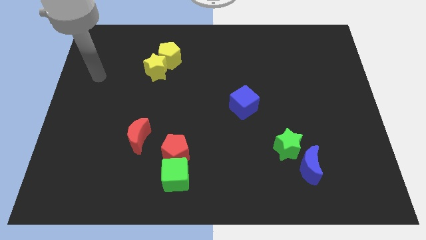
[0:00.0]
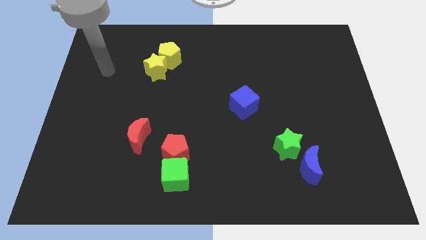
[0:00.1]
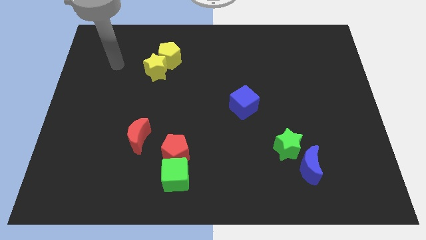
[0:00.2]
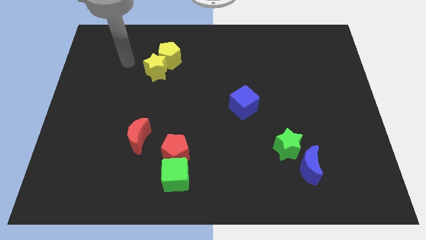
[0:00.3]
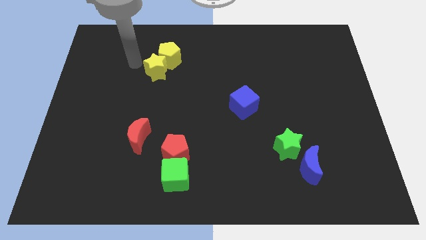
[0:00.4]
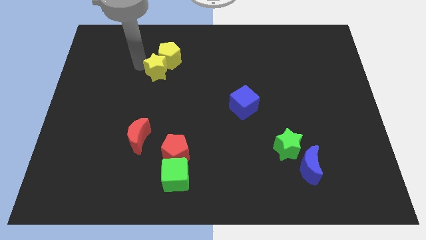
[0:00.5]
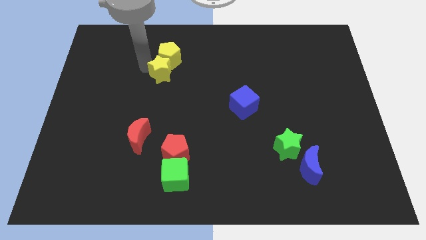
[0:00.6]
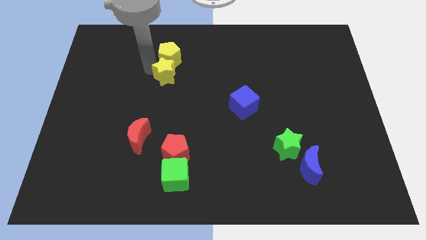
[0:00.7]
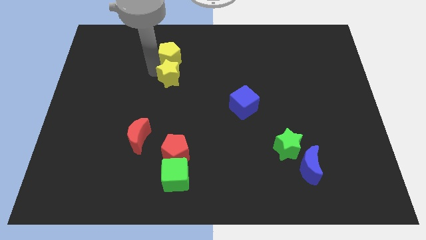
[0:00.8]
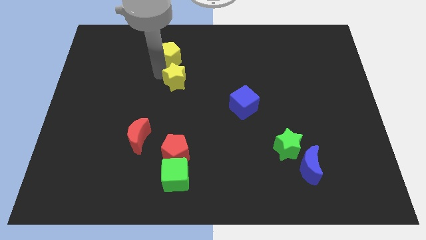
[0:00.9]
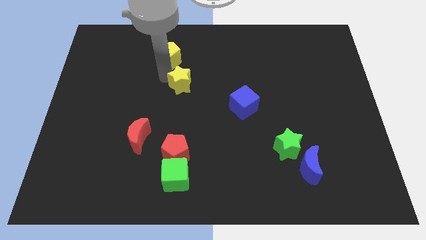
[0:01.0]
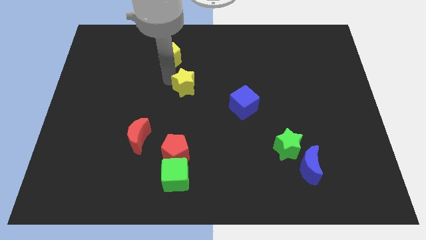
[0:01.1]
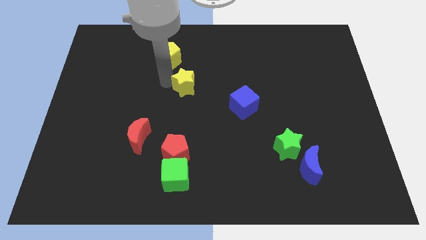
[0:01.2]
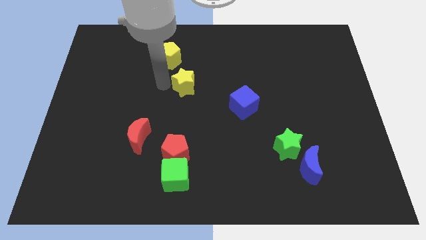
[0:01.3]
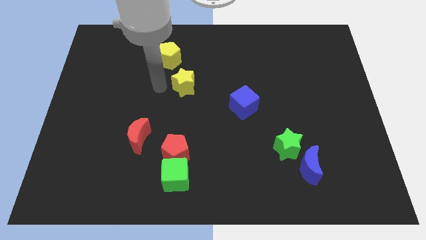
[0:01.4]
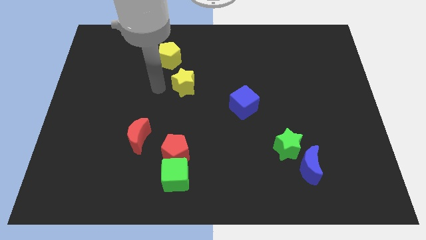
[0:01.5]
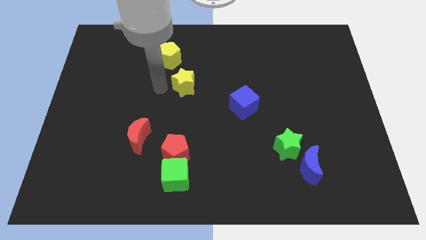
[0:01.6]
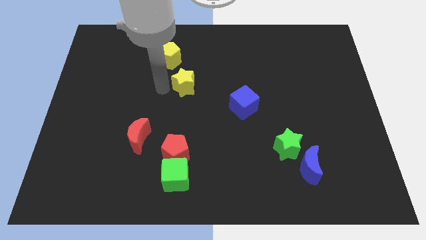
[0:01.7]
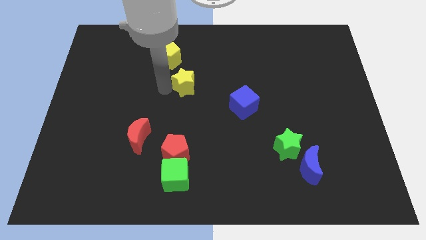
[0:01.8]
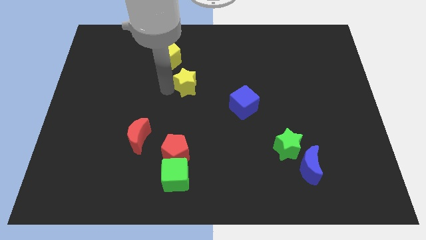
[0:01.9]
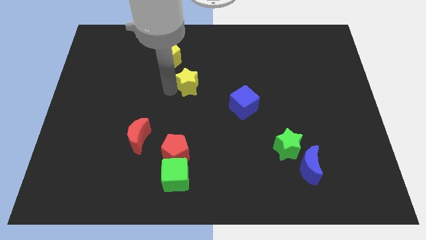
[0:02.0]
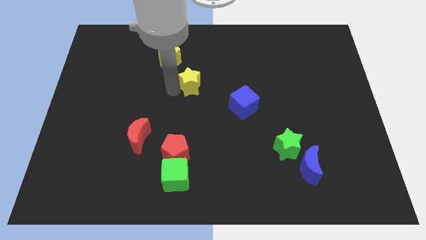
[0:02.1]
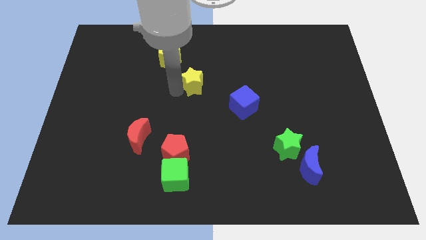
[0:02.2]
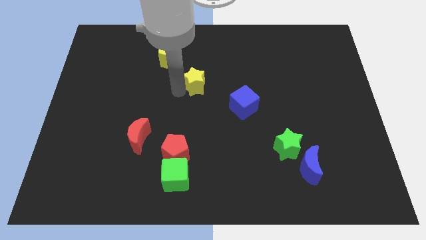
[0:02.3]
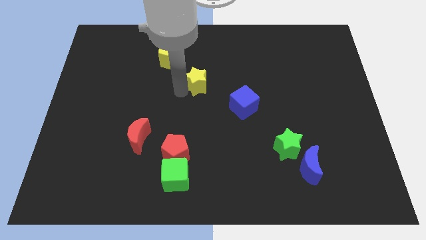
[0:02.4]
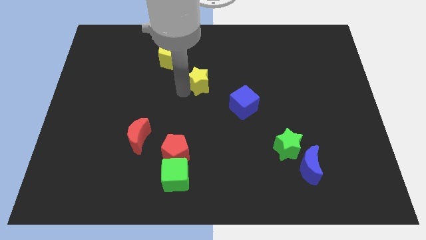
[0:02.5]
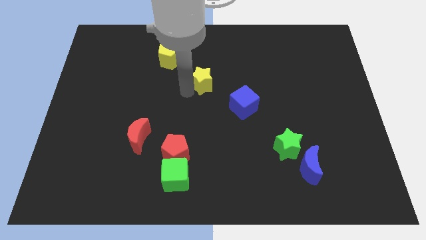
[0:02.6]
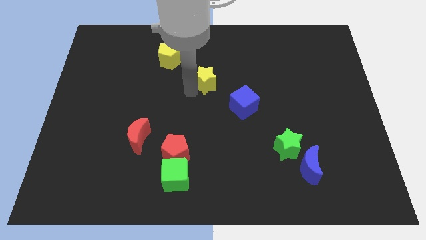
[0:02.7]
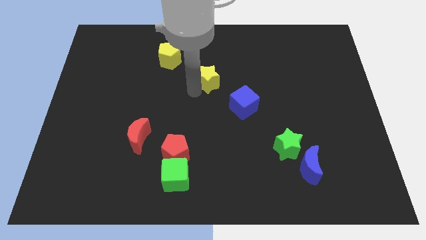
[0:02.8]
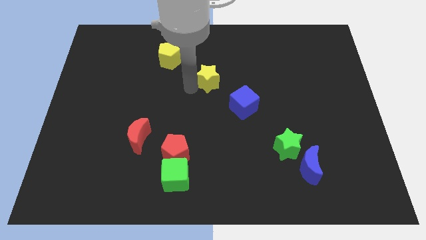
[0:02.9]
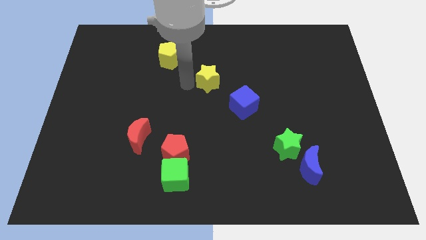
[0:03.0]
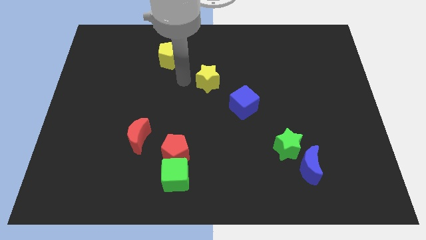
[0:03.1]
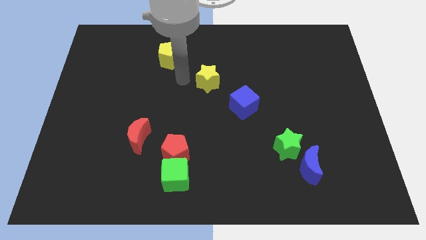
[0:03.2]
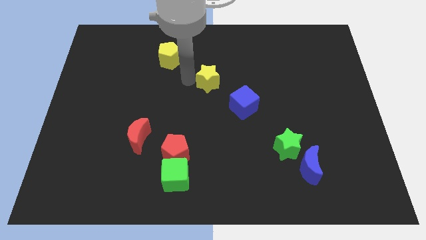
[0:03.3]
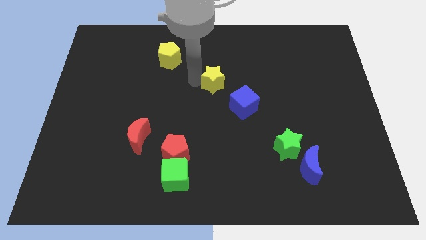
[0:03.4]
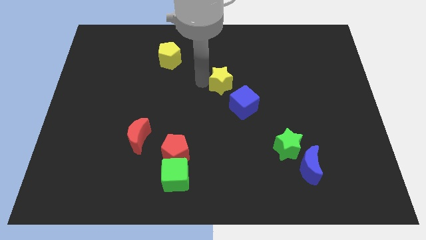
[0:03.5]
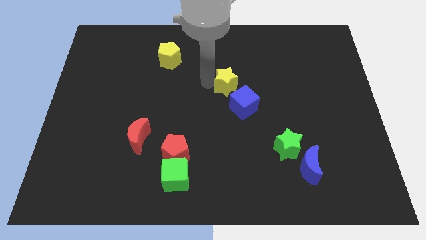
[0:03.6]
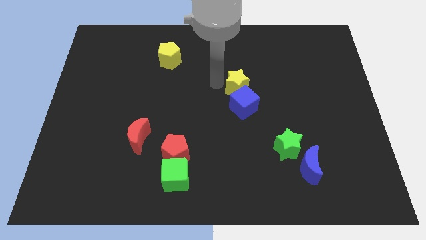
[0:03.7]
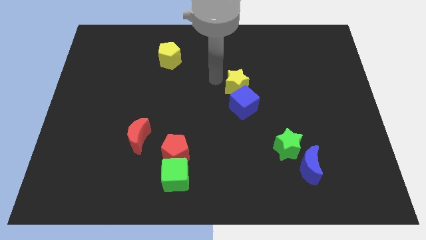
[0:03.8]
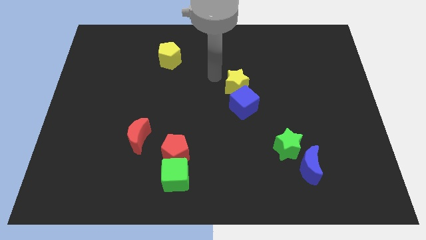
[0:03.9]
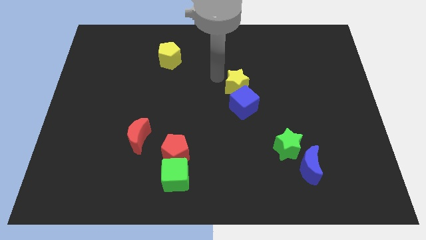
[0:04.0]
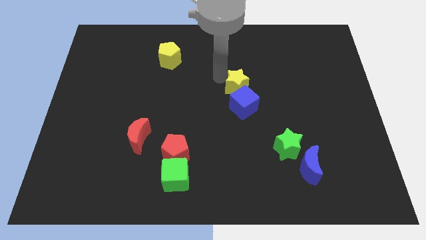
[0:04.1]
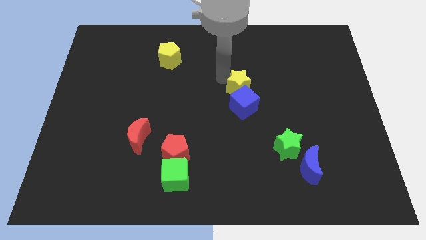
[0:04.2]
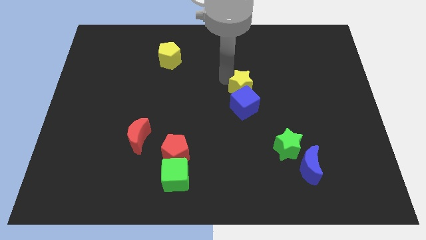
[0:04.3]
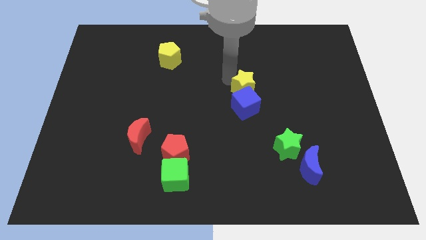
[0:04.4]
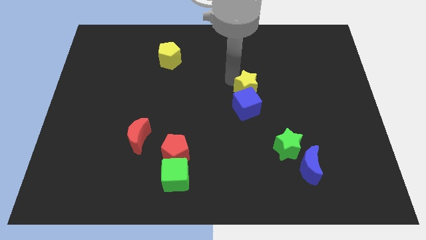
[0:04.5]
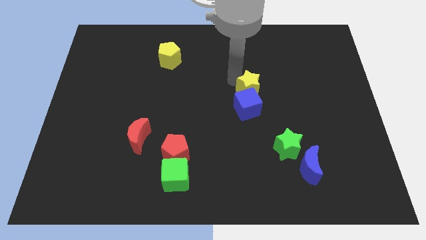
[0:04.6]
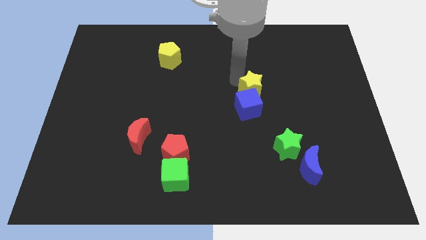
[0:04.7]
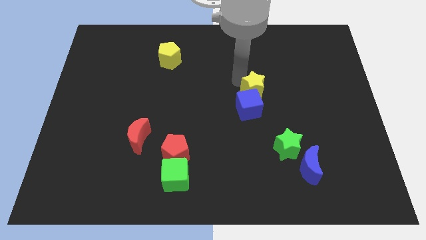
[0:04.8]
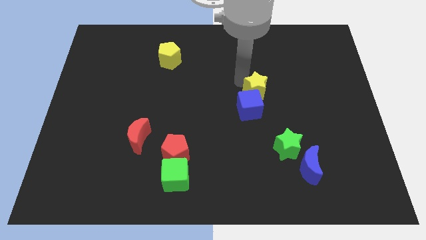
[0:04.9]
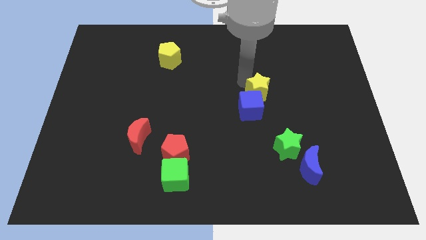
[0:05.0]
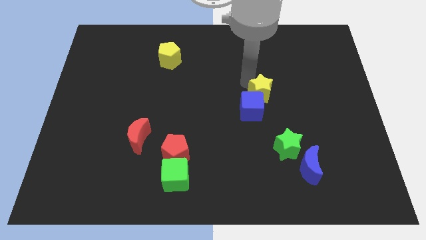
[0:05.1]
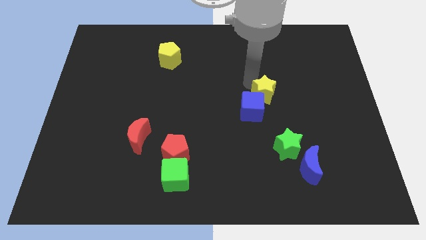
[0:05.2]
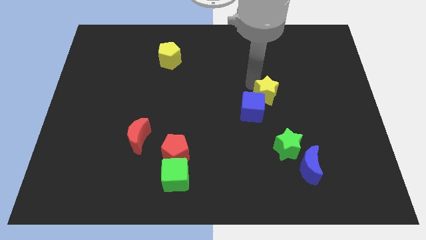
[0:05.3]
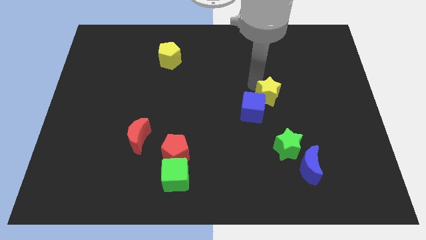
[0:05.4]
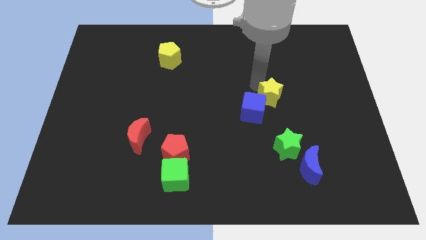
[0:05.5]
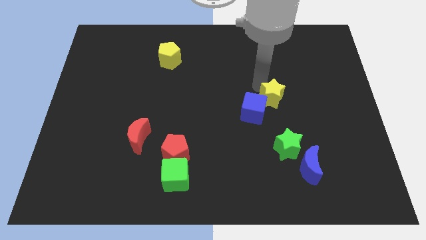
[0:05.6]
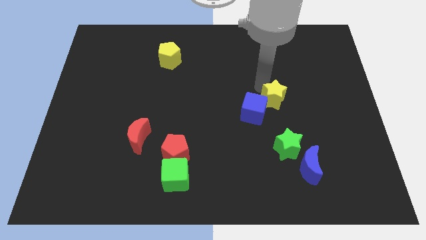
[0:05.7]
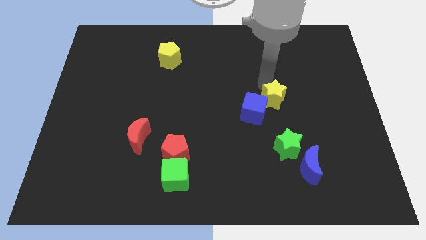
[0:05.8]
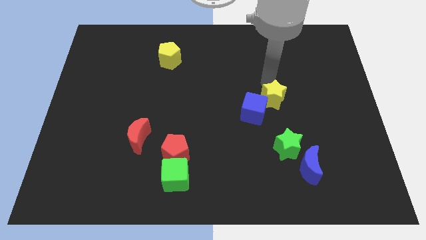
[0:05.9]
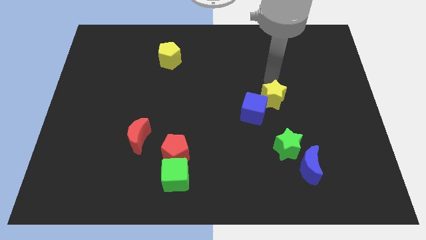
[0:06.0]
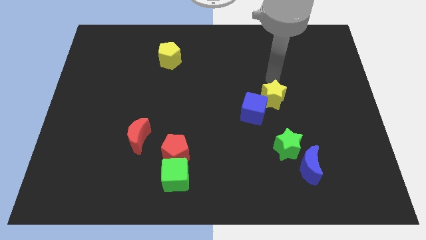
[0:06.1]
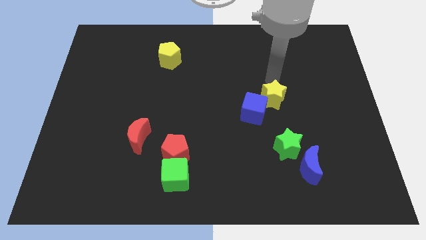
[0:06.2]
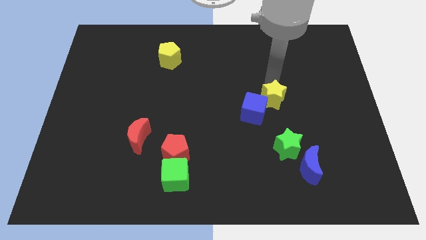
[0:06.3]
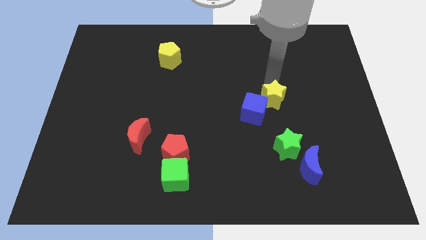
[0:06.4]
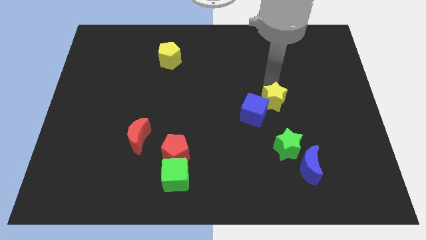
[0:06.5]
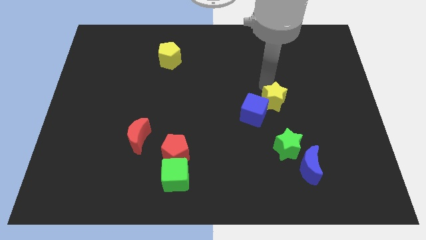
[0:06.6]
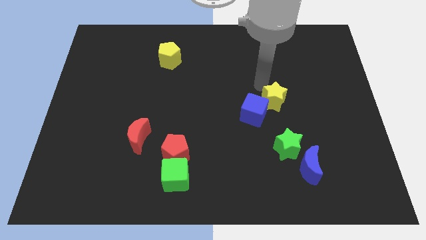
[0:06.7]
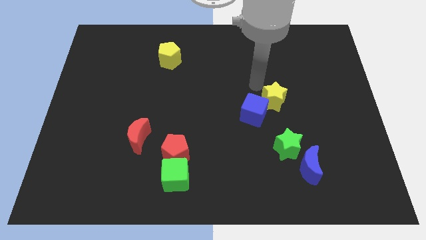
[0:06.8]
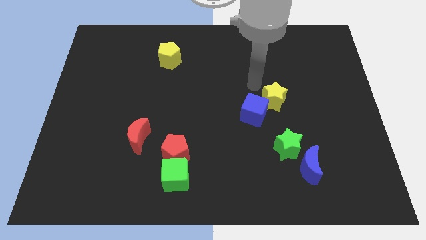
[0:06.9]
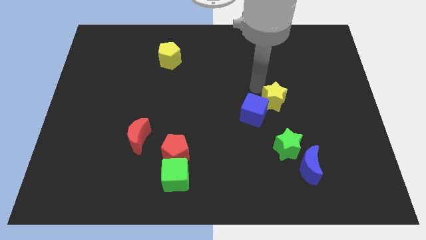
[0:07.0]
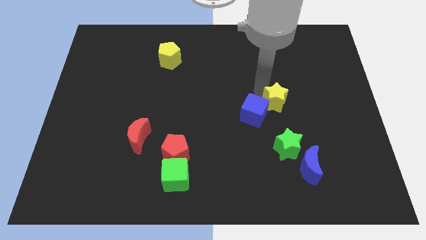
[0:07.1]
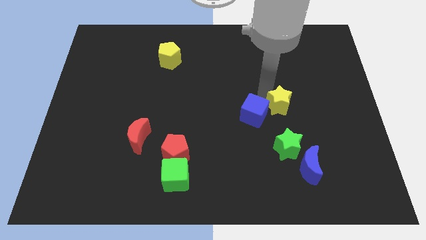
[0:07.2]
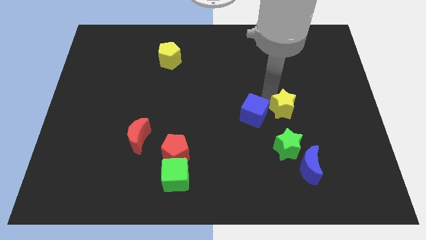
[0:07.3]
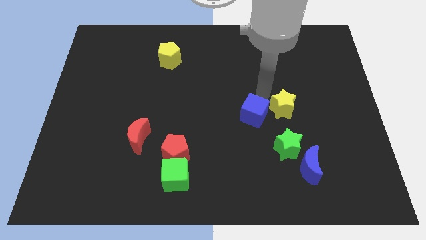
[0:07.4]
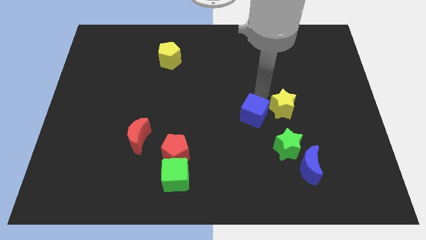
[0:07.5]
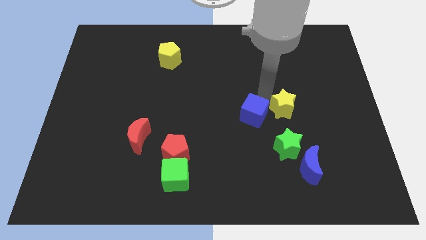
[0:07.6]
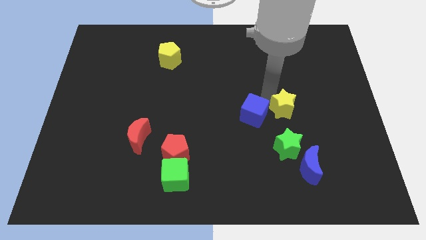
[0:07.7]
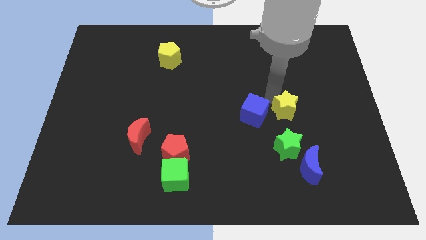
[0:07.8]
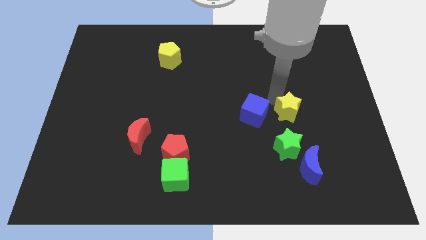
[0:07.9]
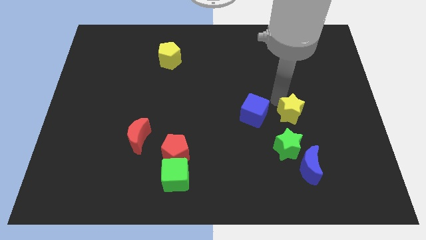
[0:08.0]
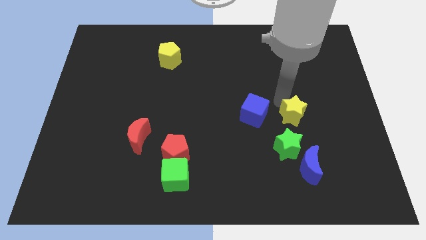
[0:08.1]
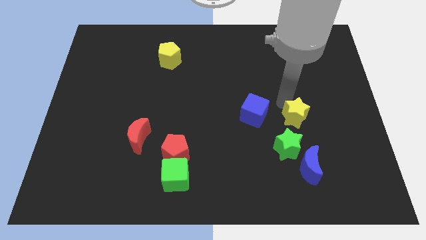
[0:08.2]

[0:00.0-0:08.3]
move the yellow star to the top right of the green star
